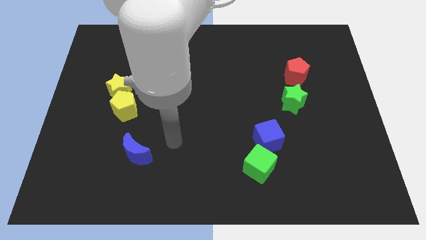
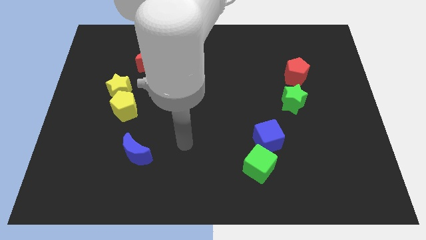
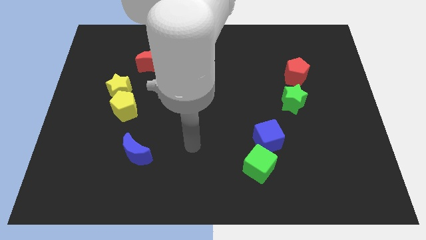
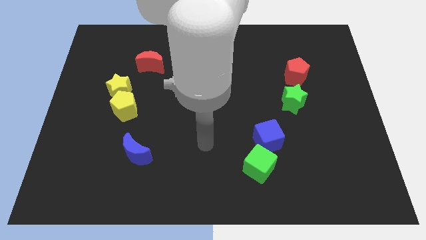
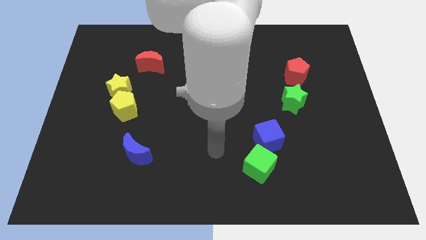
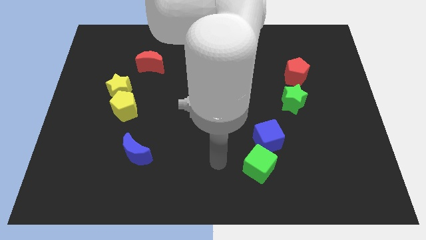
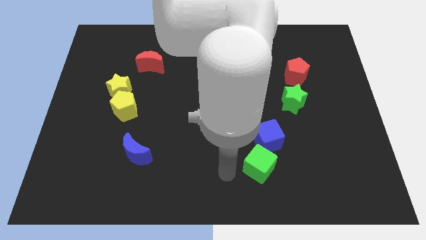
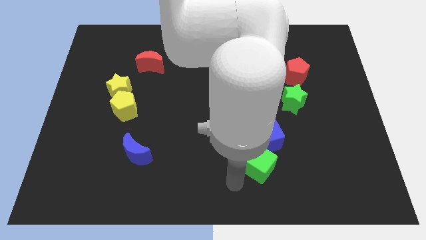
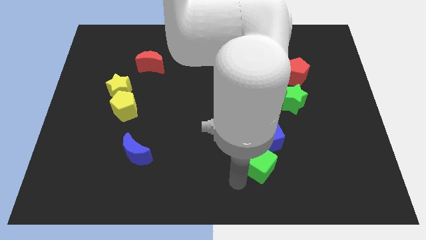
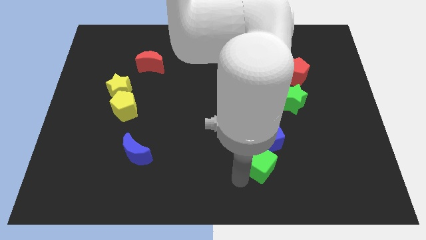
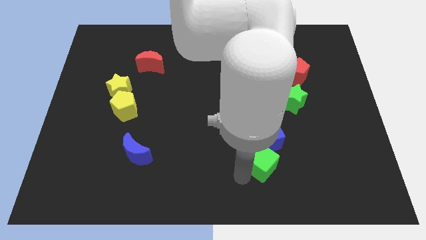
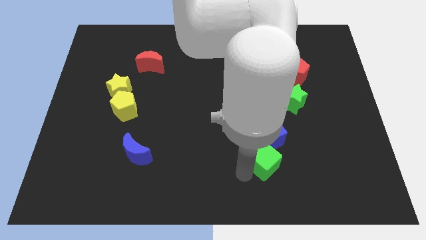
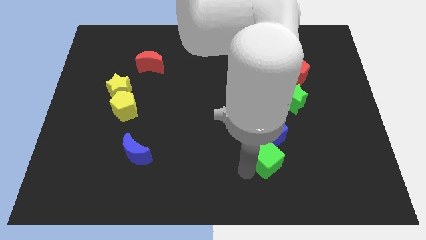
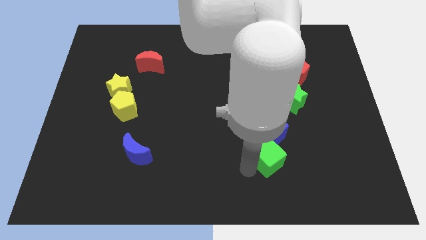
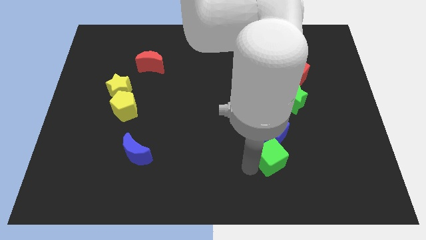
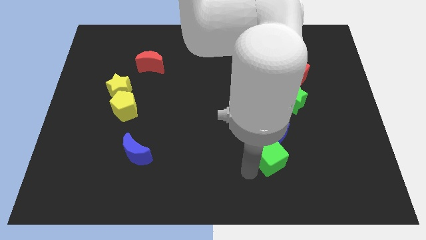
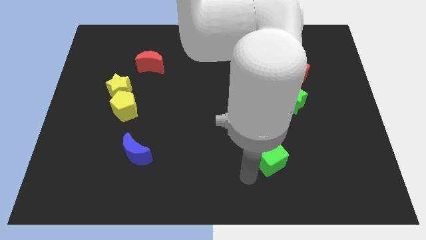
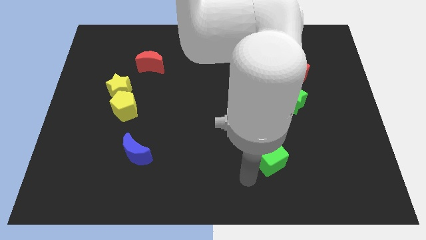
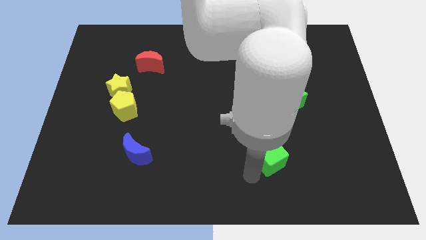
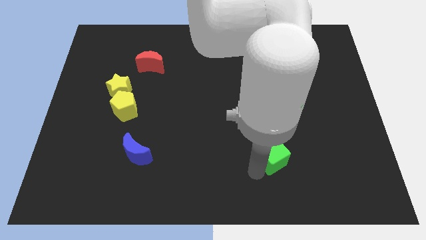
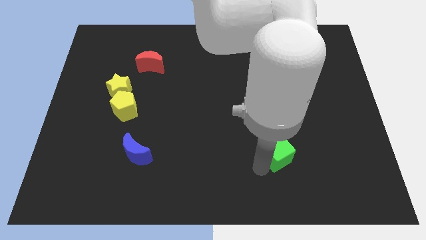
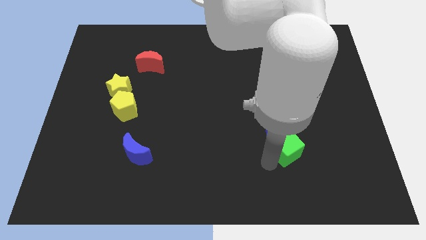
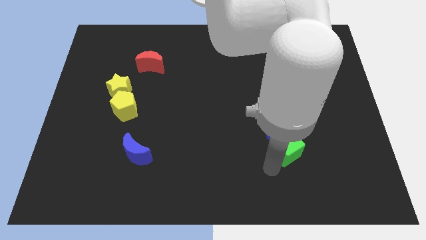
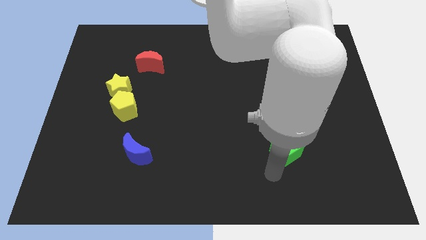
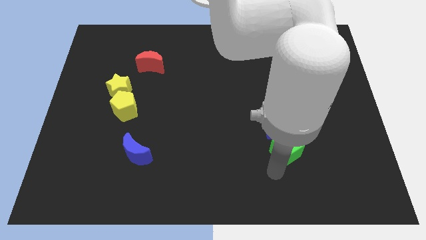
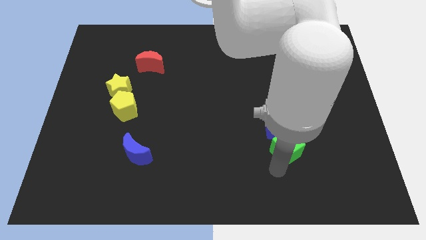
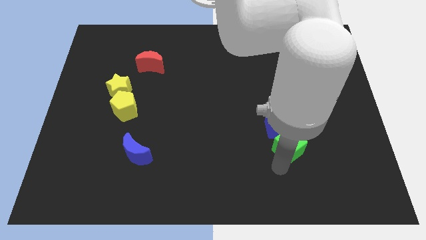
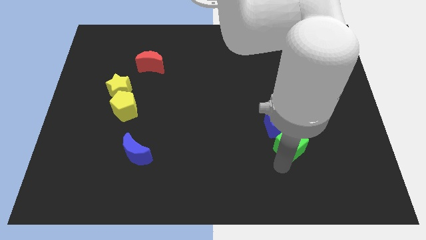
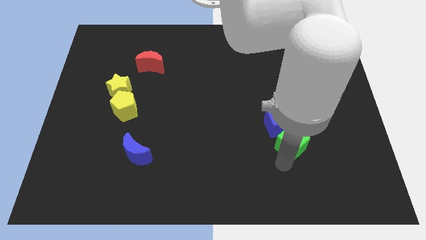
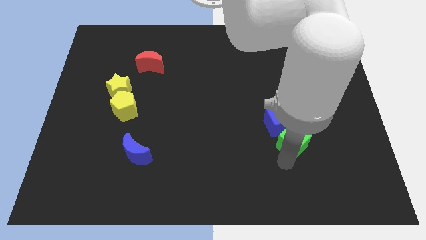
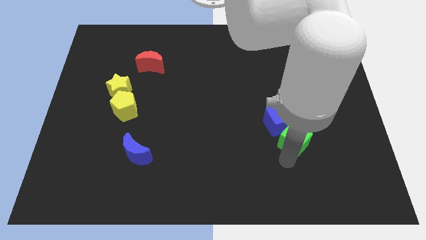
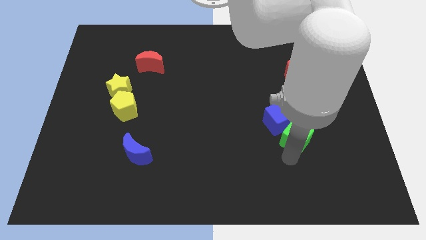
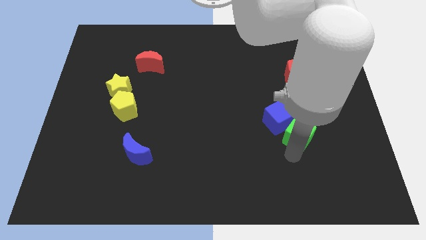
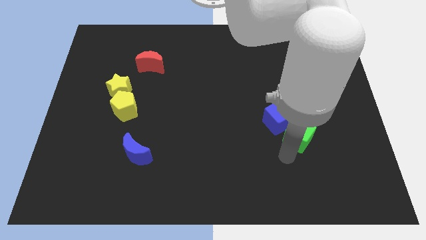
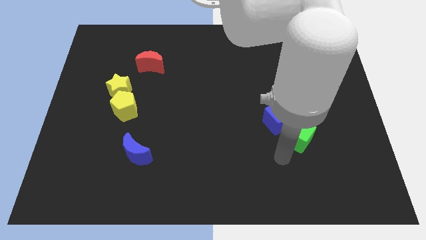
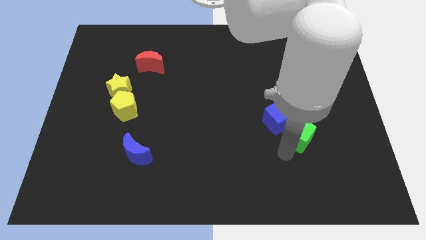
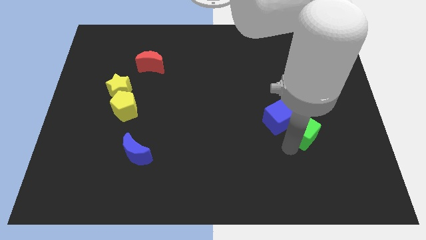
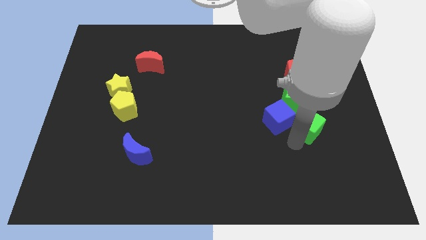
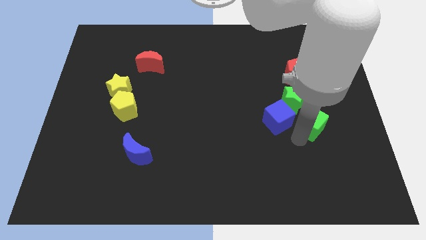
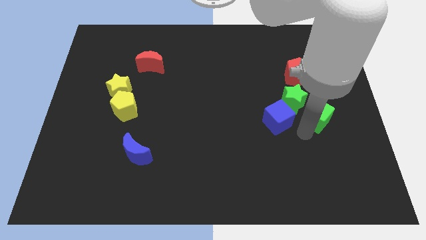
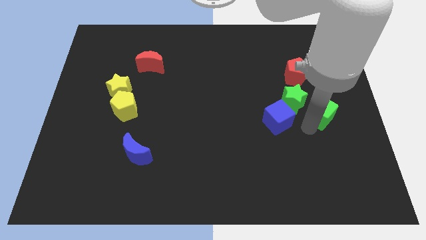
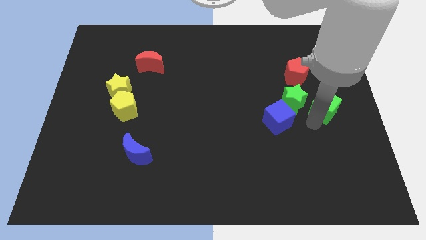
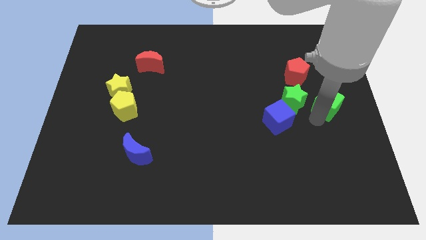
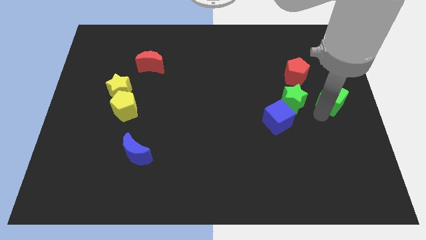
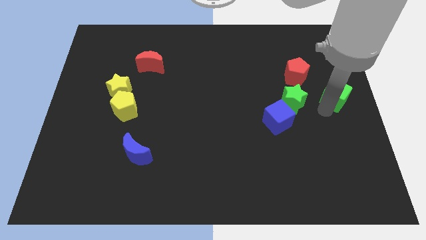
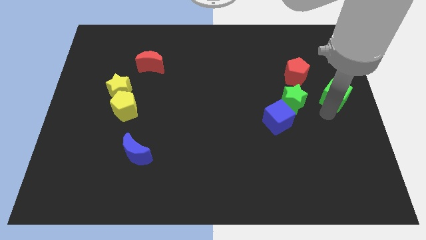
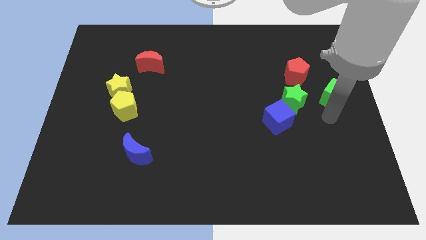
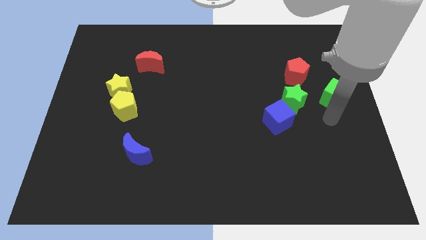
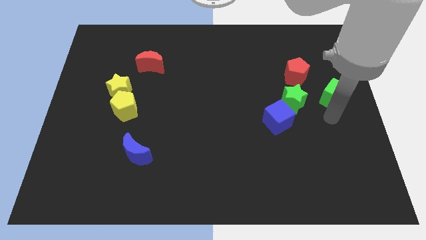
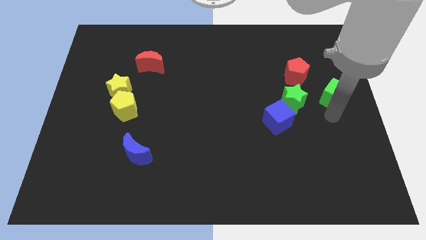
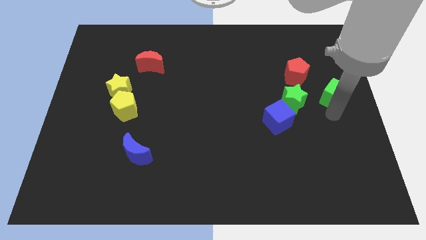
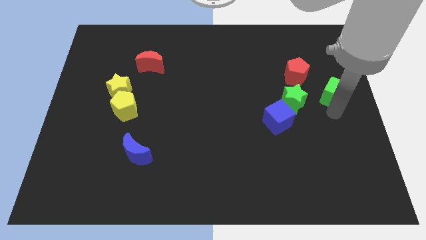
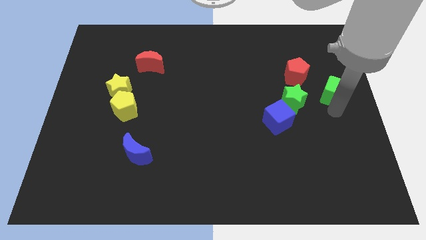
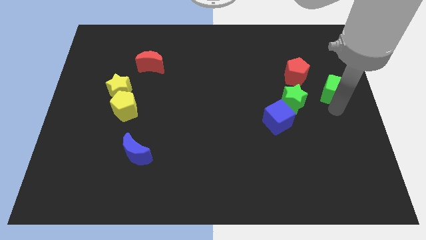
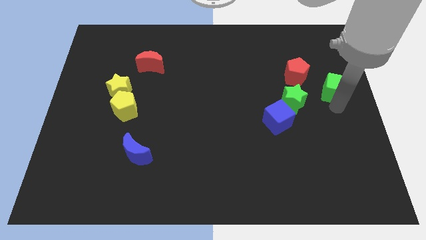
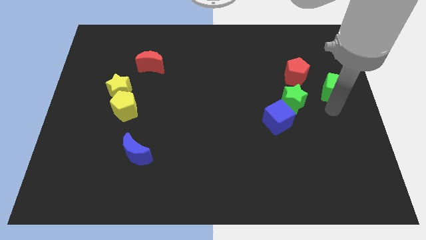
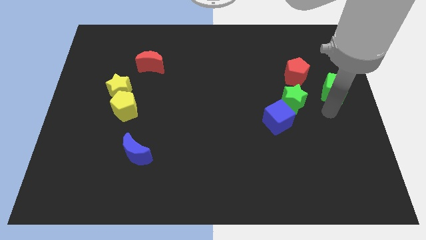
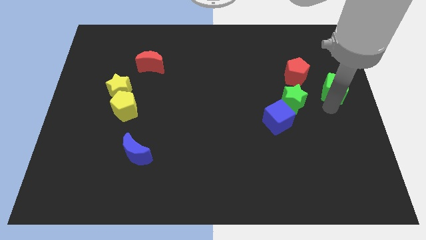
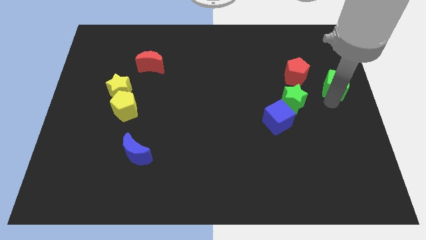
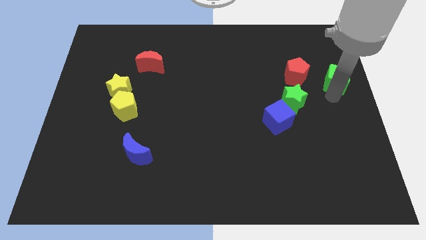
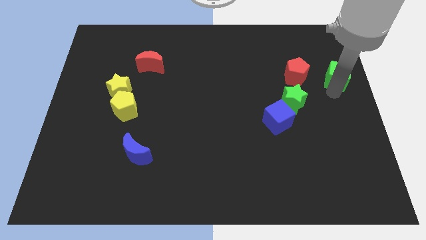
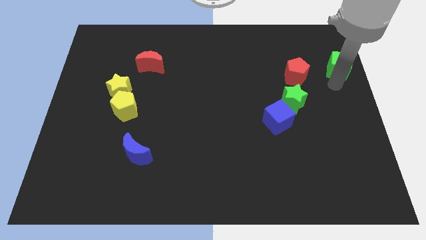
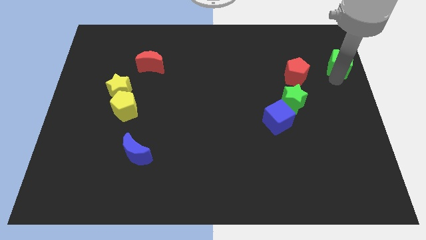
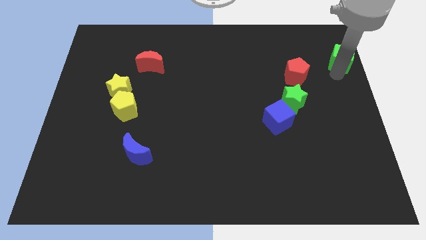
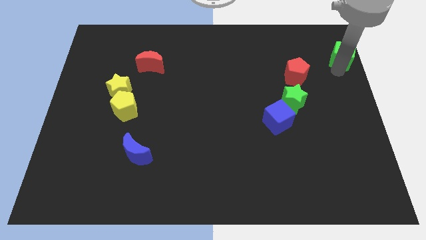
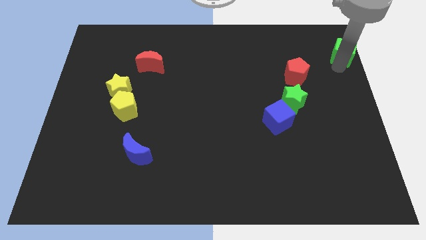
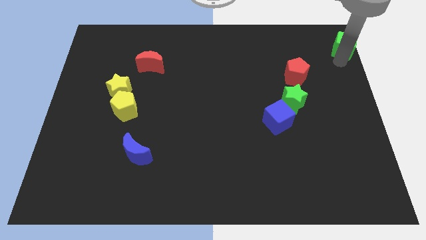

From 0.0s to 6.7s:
put the green cube to the top right of the board
